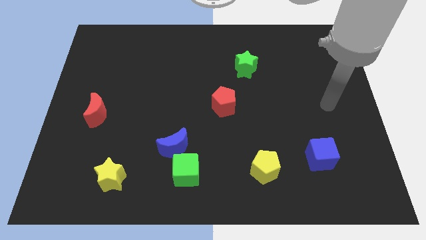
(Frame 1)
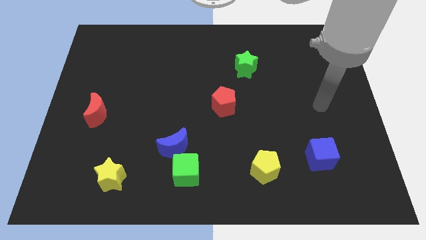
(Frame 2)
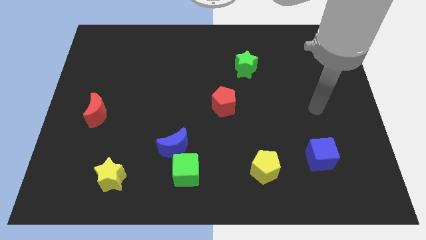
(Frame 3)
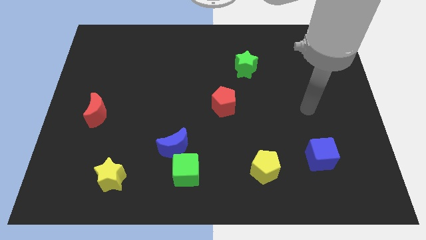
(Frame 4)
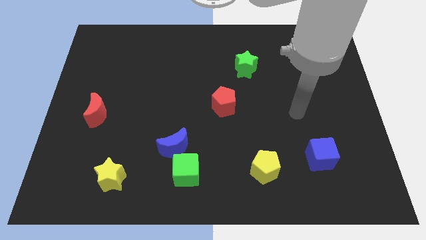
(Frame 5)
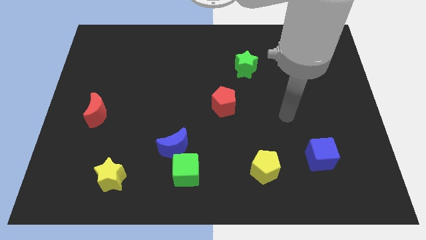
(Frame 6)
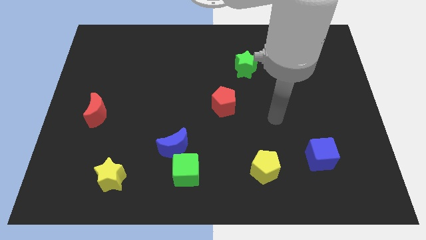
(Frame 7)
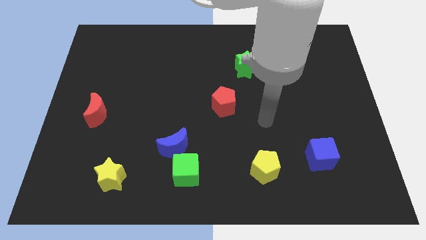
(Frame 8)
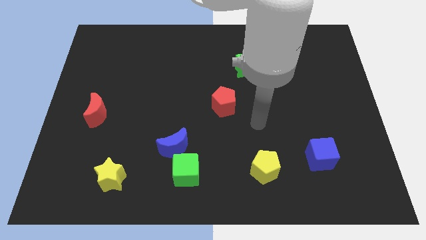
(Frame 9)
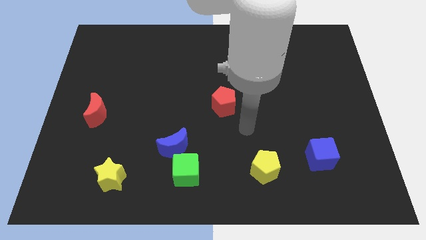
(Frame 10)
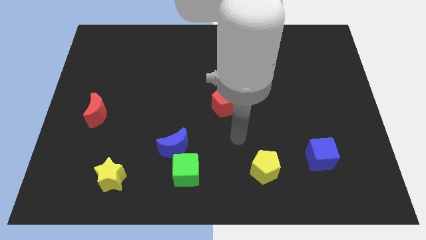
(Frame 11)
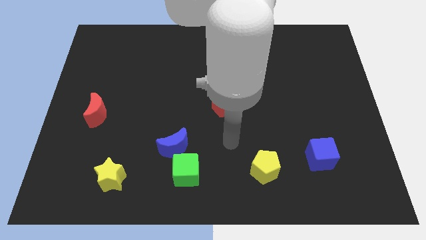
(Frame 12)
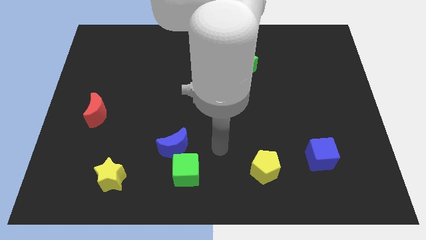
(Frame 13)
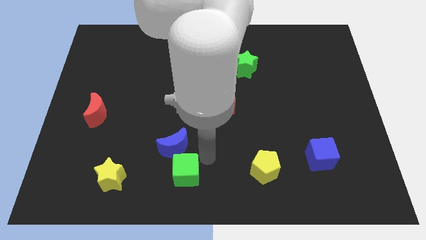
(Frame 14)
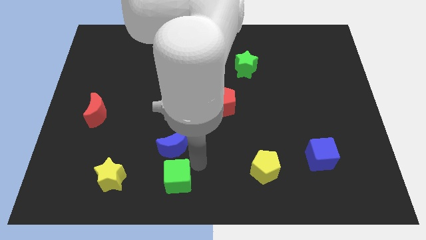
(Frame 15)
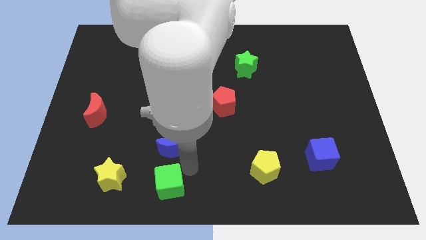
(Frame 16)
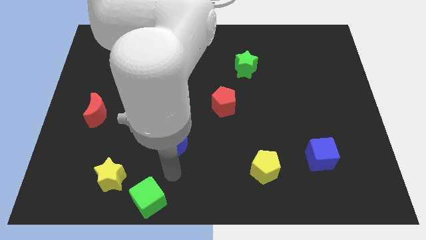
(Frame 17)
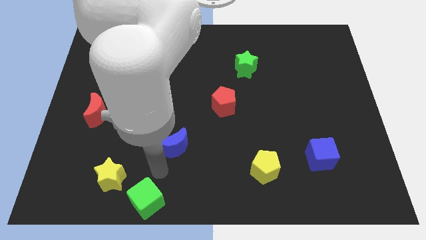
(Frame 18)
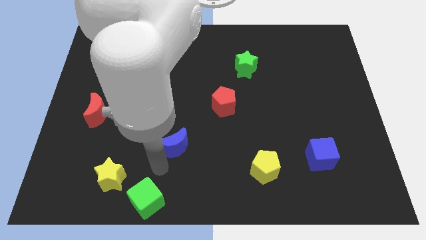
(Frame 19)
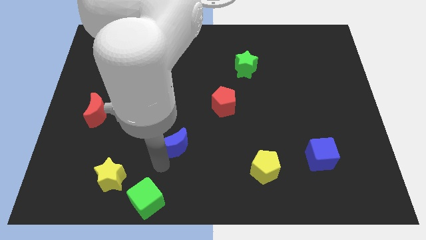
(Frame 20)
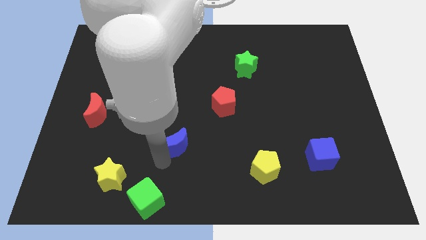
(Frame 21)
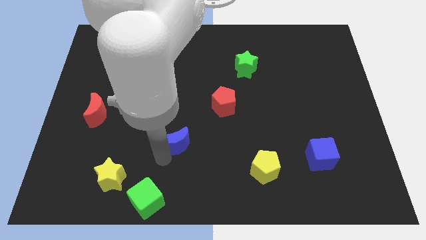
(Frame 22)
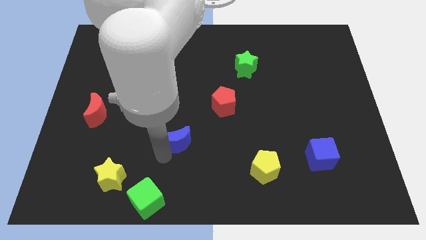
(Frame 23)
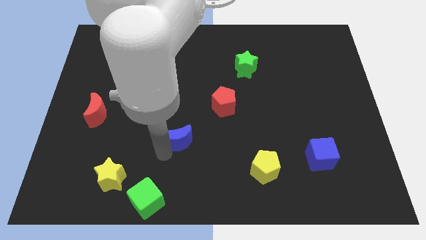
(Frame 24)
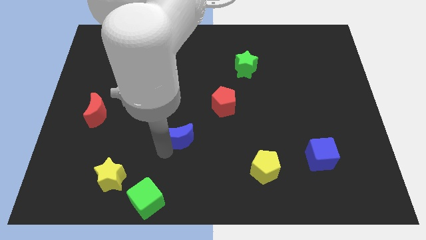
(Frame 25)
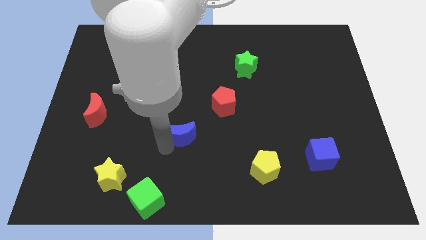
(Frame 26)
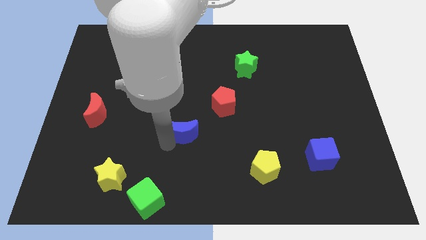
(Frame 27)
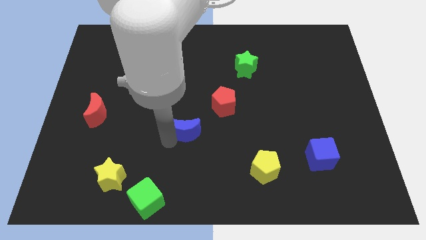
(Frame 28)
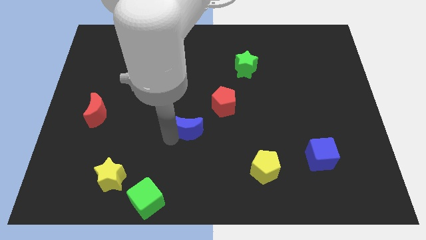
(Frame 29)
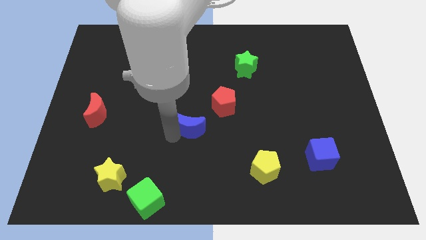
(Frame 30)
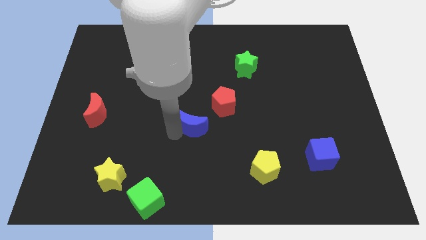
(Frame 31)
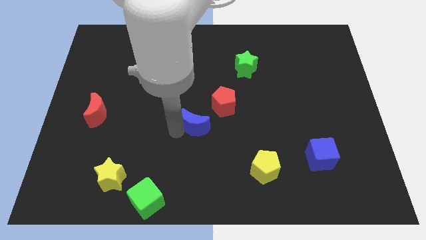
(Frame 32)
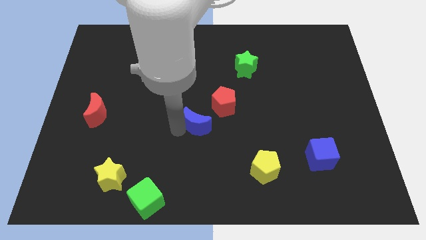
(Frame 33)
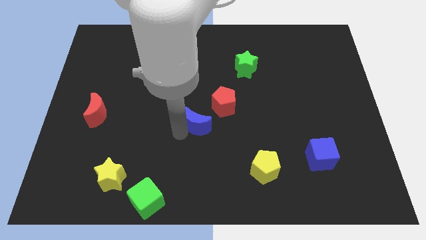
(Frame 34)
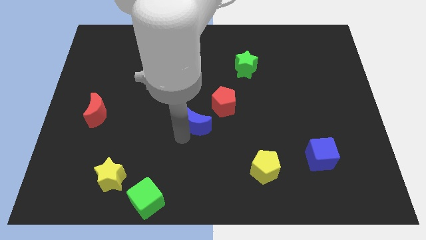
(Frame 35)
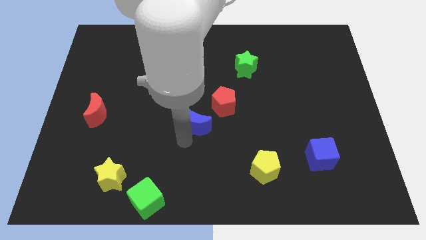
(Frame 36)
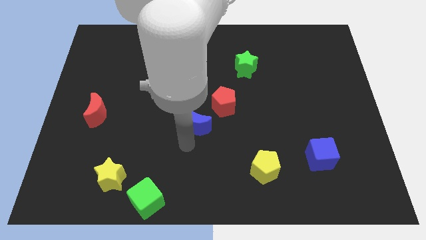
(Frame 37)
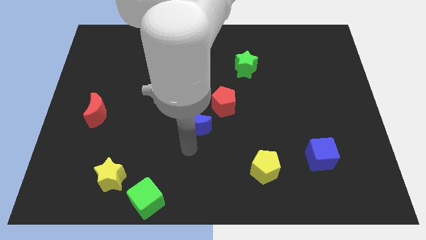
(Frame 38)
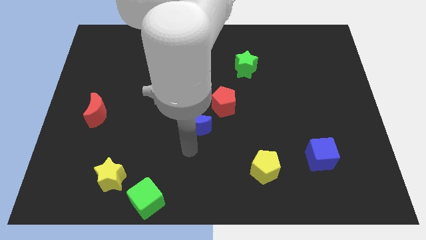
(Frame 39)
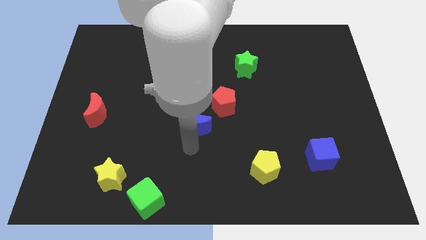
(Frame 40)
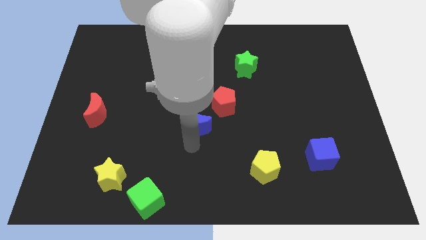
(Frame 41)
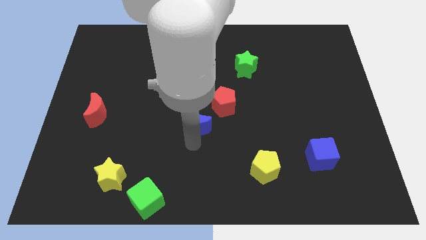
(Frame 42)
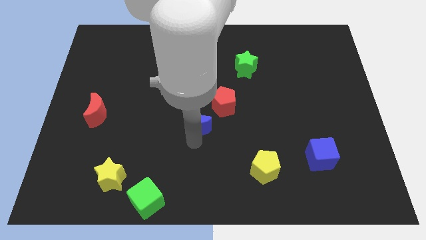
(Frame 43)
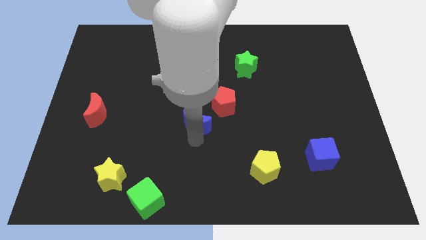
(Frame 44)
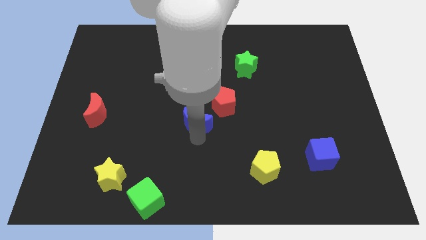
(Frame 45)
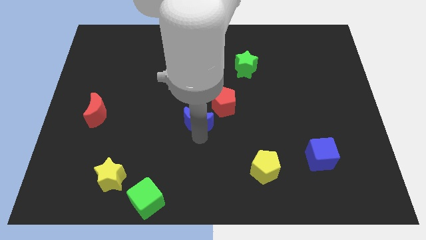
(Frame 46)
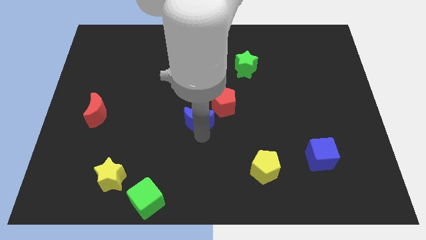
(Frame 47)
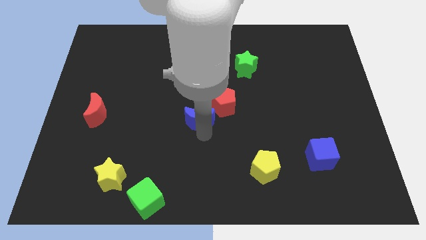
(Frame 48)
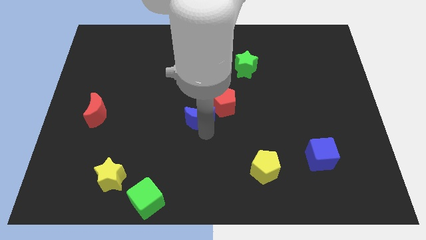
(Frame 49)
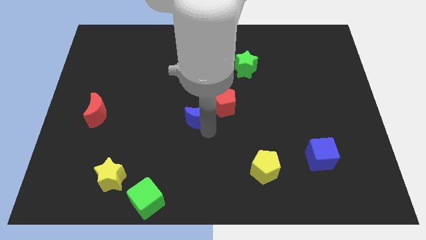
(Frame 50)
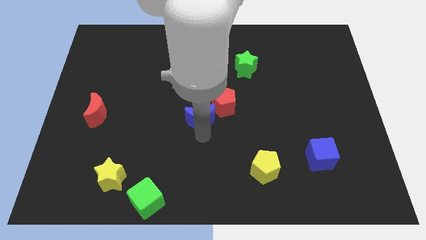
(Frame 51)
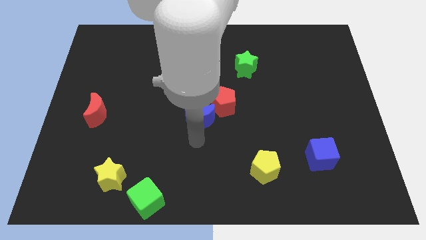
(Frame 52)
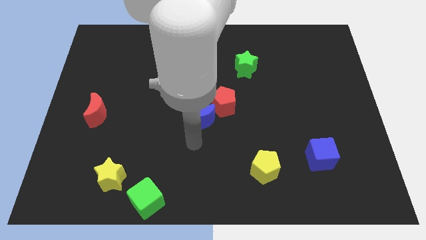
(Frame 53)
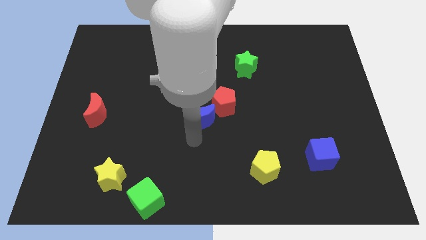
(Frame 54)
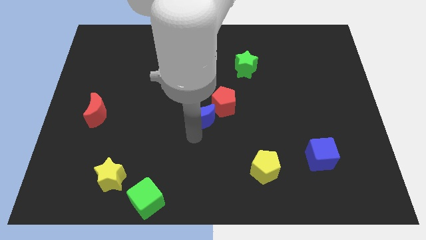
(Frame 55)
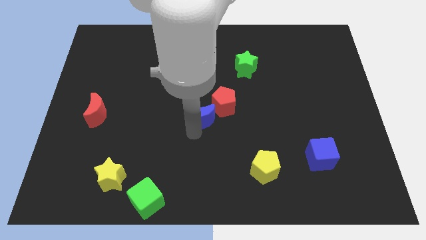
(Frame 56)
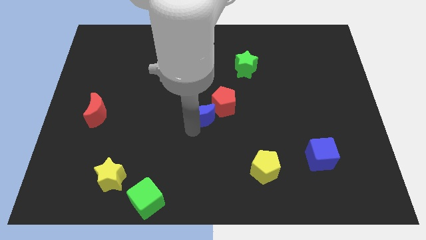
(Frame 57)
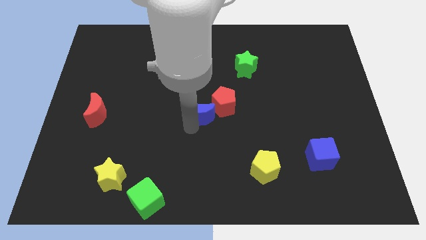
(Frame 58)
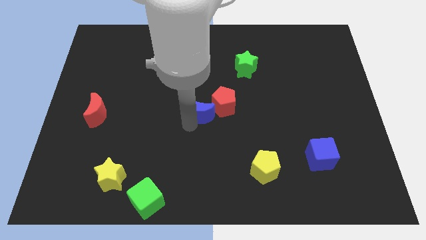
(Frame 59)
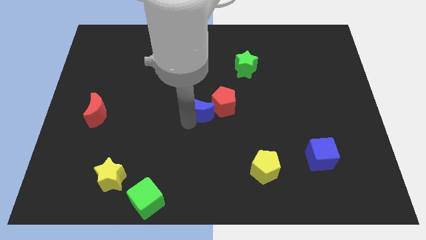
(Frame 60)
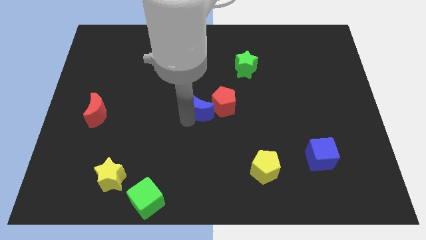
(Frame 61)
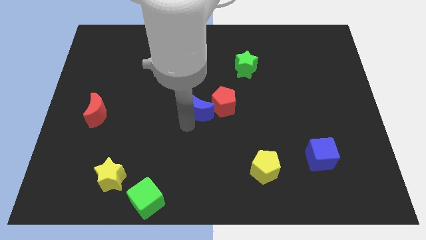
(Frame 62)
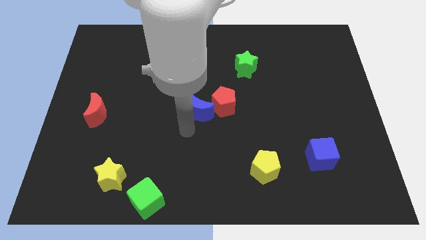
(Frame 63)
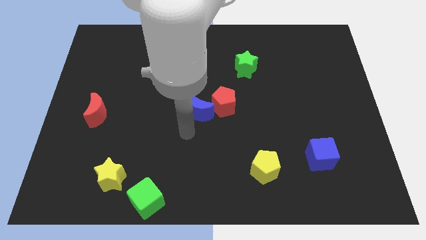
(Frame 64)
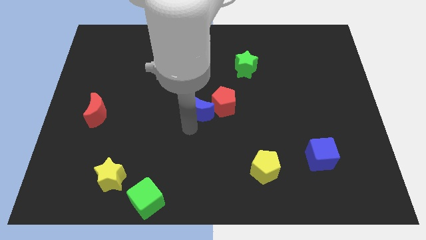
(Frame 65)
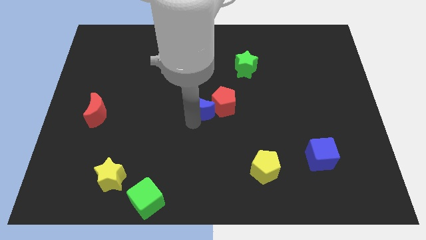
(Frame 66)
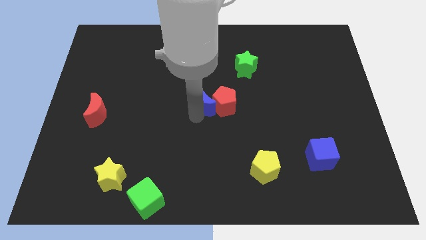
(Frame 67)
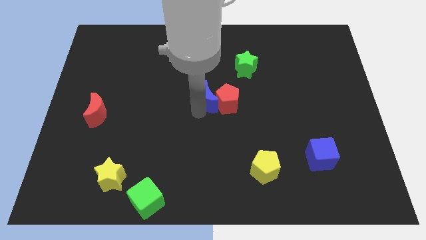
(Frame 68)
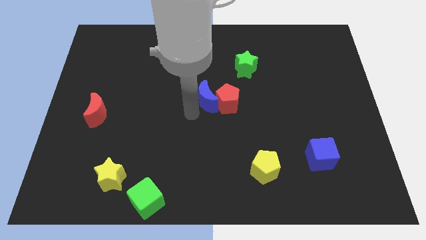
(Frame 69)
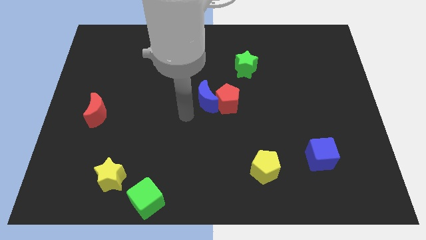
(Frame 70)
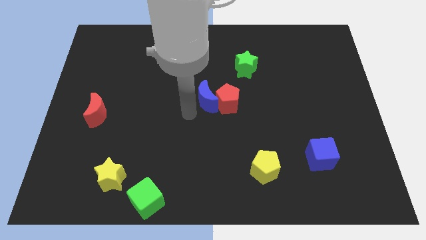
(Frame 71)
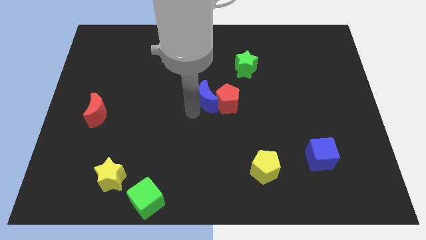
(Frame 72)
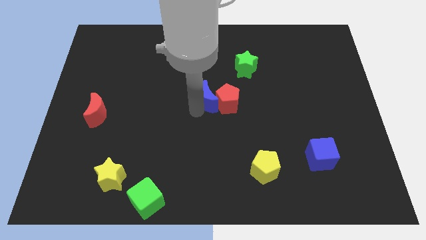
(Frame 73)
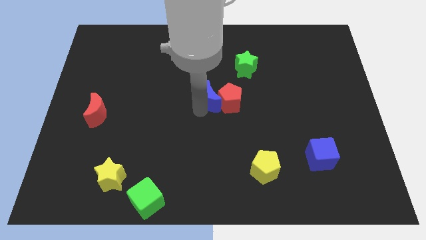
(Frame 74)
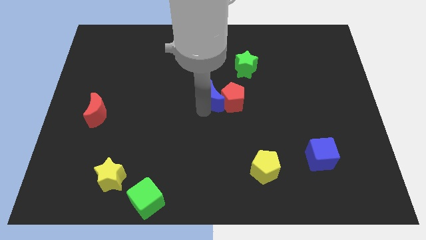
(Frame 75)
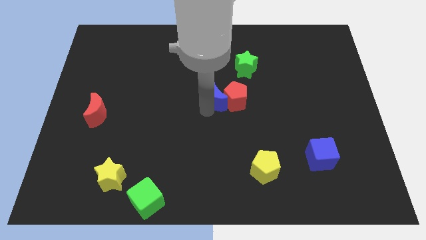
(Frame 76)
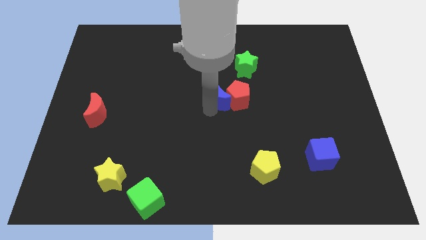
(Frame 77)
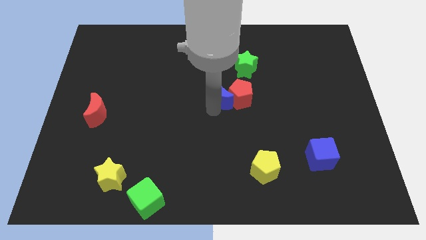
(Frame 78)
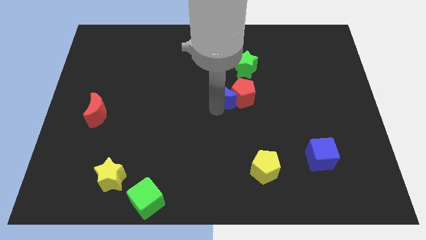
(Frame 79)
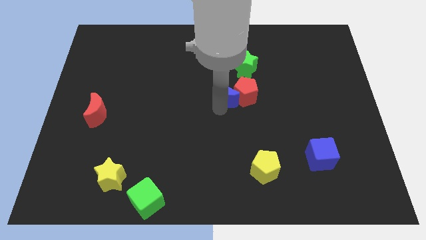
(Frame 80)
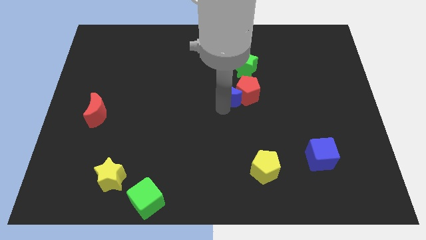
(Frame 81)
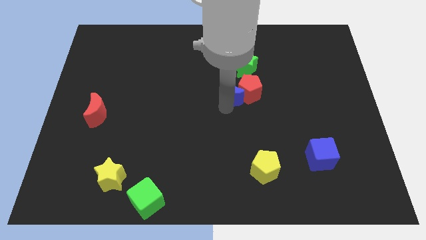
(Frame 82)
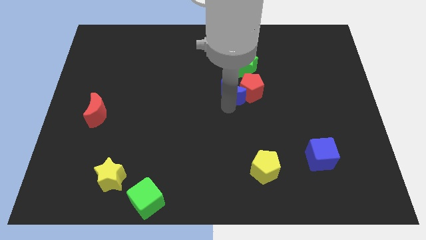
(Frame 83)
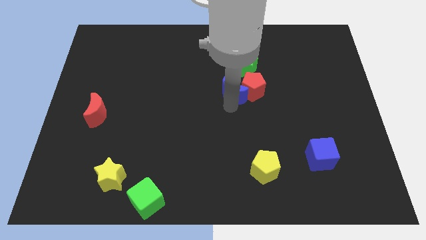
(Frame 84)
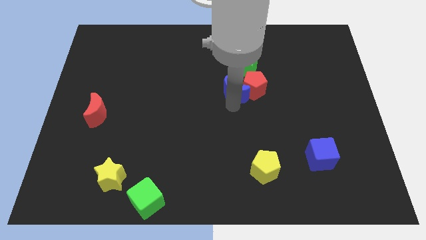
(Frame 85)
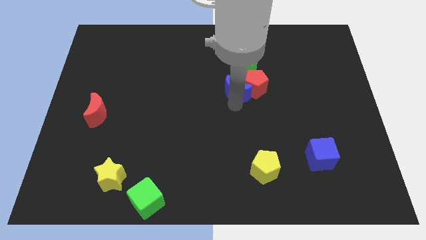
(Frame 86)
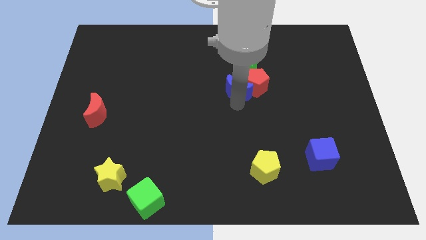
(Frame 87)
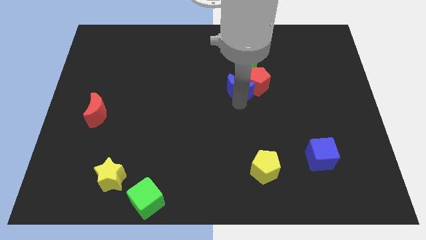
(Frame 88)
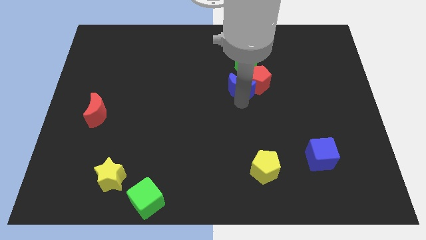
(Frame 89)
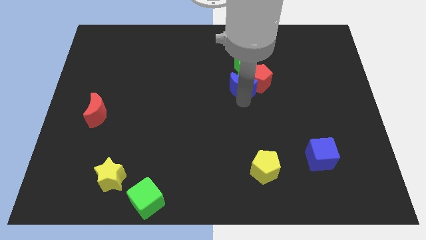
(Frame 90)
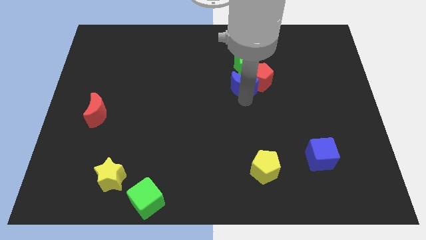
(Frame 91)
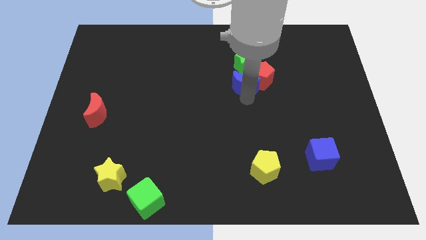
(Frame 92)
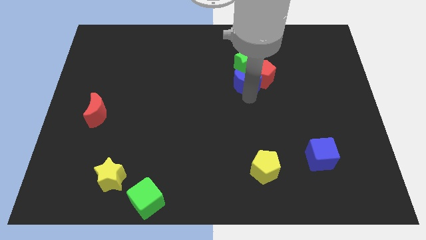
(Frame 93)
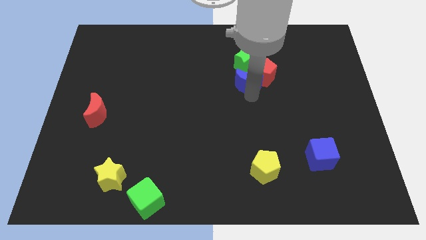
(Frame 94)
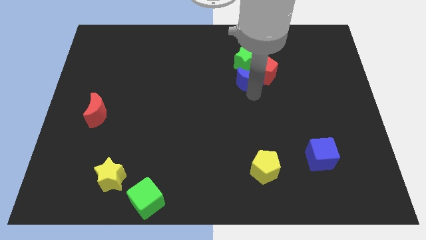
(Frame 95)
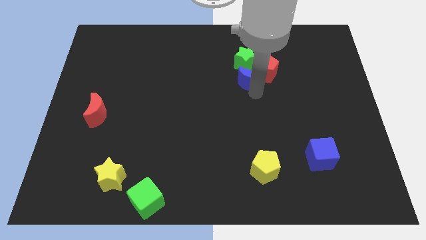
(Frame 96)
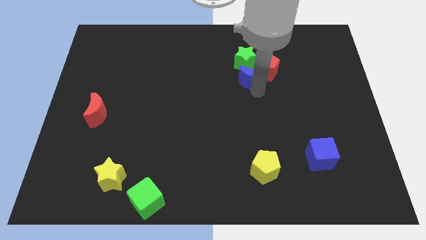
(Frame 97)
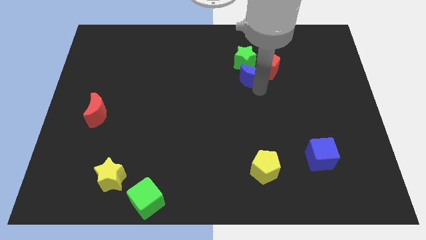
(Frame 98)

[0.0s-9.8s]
put the blue moon to the green star
